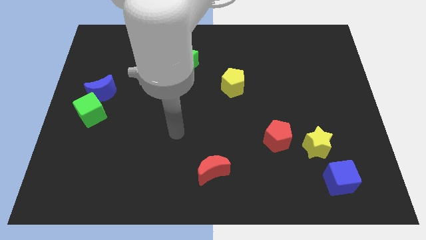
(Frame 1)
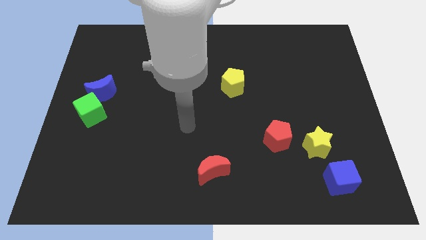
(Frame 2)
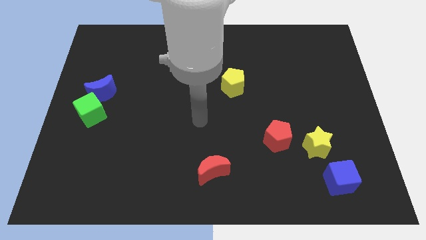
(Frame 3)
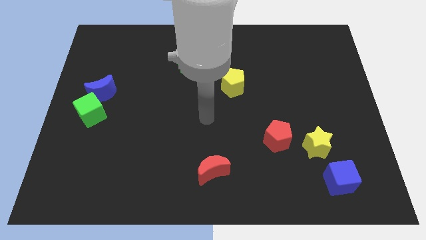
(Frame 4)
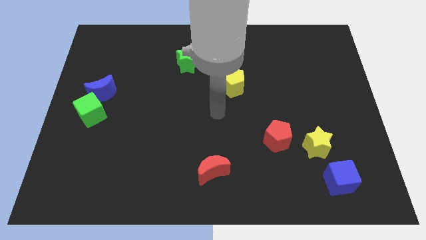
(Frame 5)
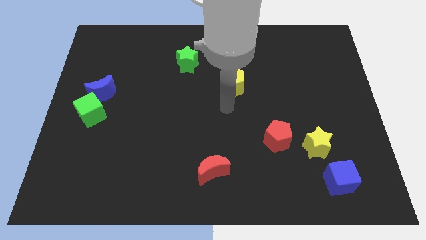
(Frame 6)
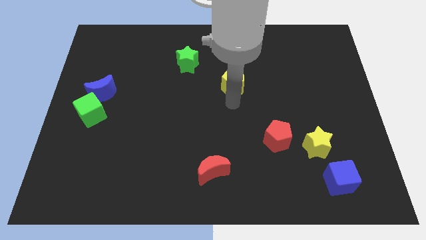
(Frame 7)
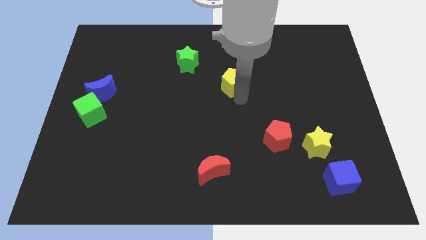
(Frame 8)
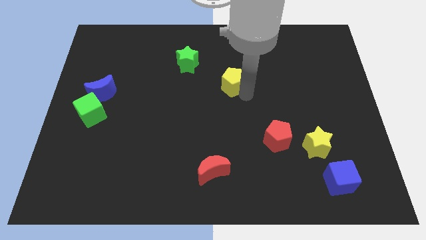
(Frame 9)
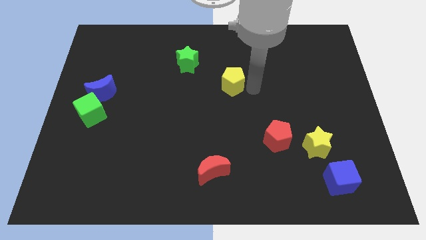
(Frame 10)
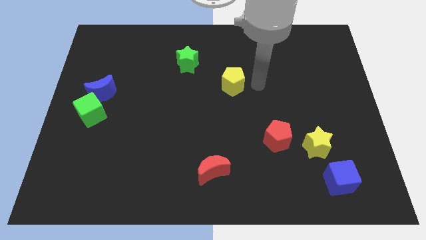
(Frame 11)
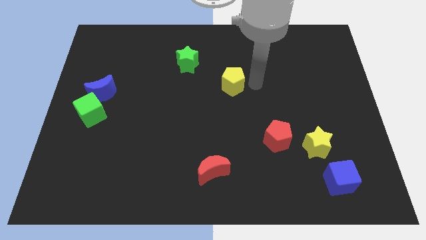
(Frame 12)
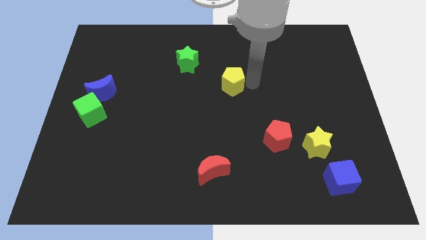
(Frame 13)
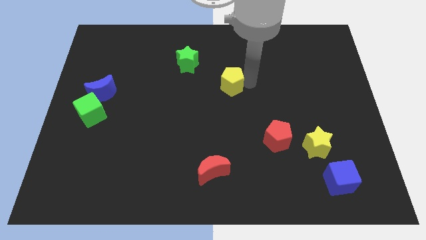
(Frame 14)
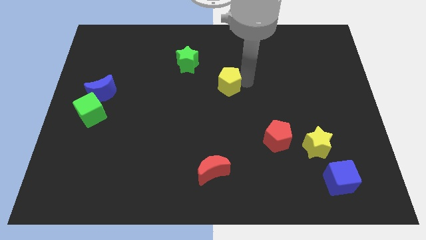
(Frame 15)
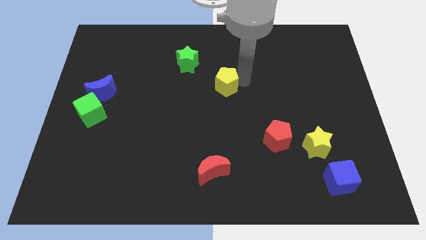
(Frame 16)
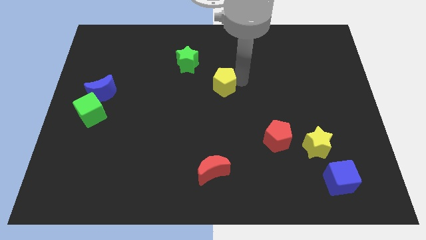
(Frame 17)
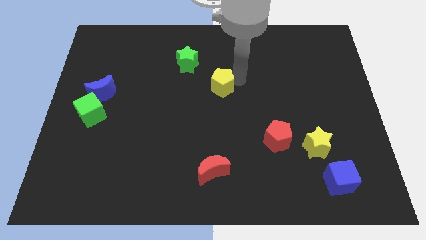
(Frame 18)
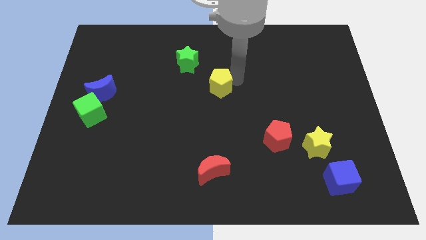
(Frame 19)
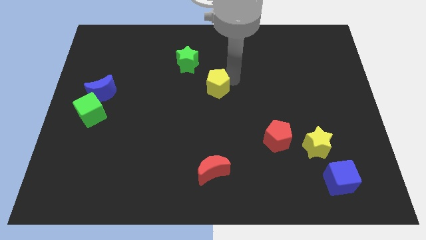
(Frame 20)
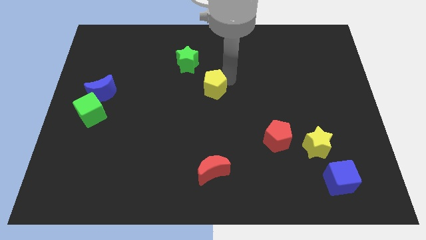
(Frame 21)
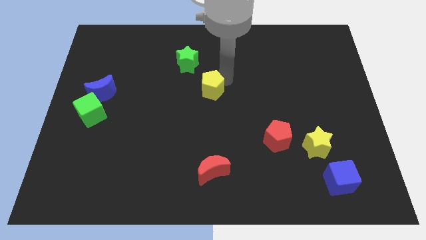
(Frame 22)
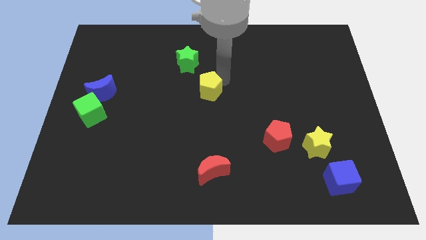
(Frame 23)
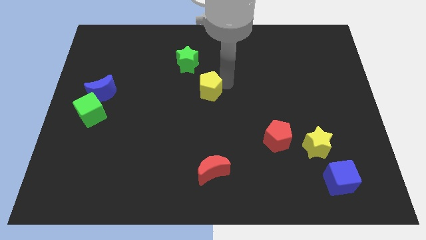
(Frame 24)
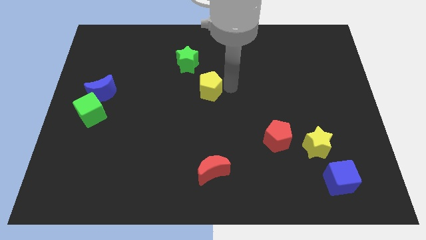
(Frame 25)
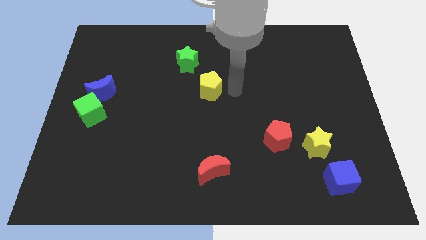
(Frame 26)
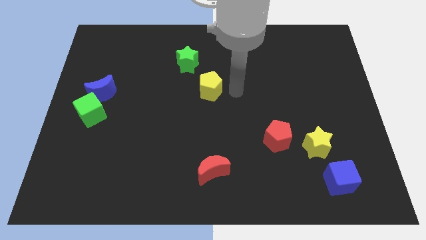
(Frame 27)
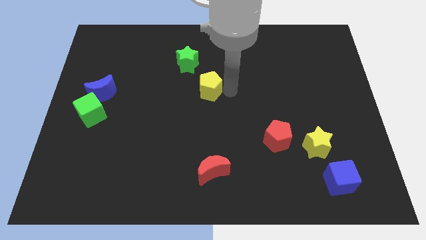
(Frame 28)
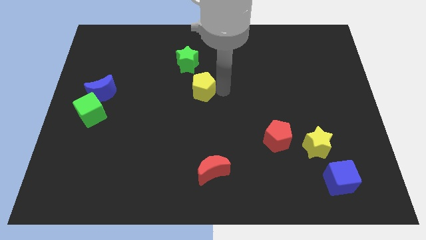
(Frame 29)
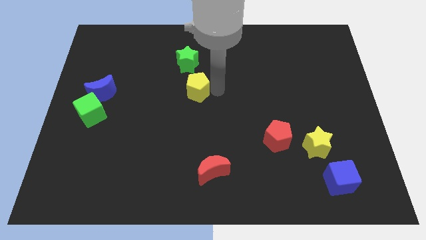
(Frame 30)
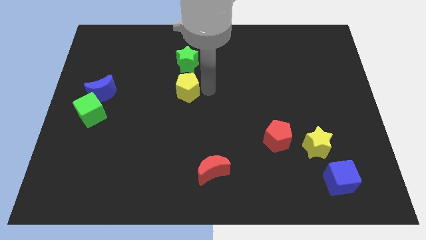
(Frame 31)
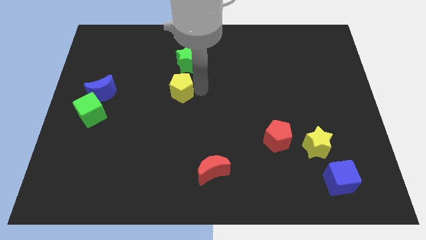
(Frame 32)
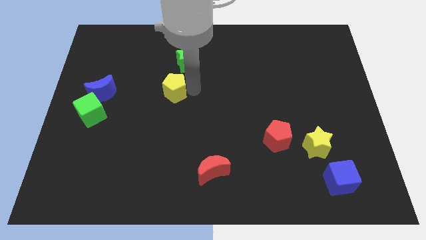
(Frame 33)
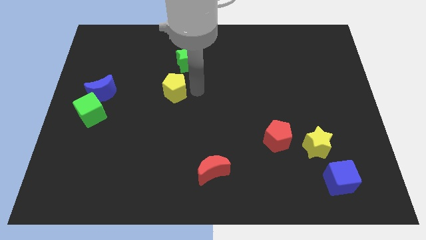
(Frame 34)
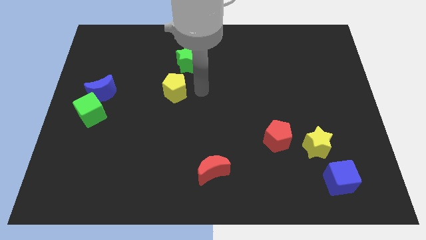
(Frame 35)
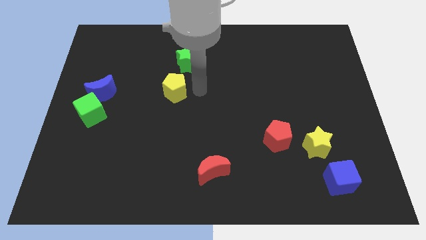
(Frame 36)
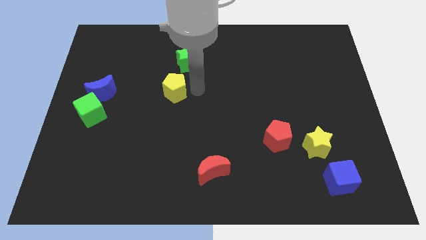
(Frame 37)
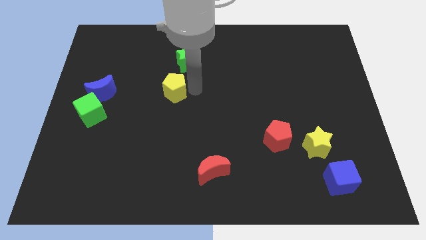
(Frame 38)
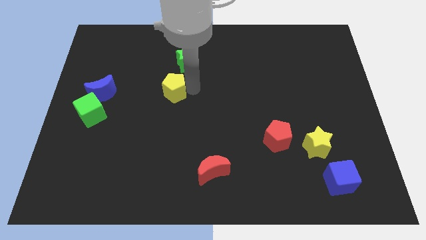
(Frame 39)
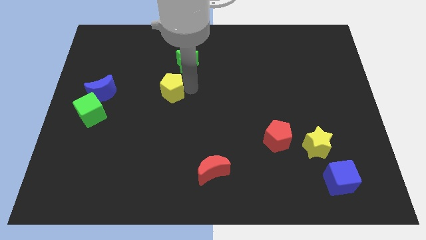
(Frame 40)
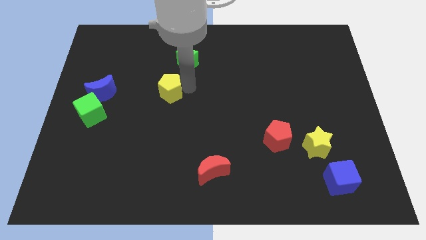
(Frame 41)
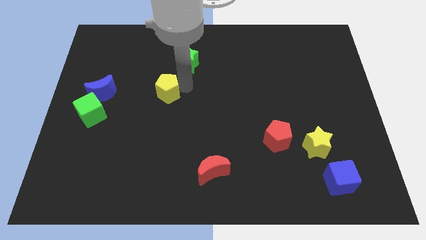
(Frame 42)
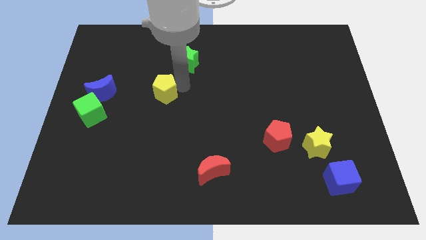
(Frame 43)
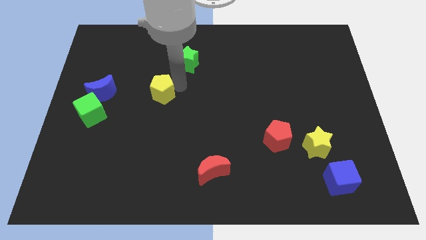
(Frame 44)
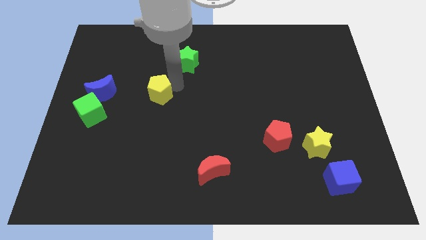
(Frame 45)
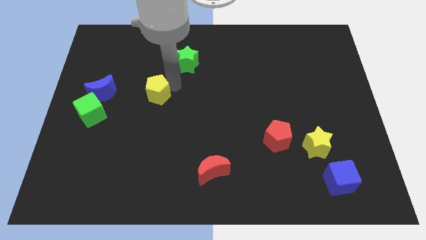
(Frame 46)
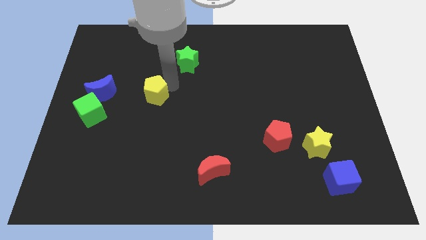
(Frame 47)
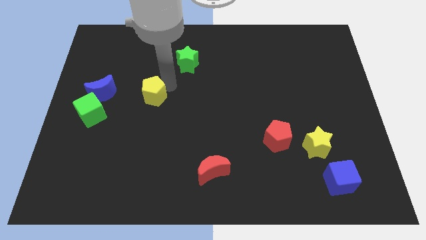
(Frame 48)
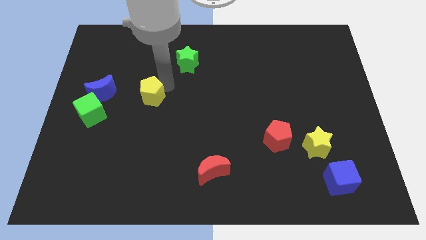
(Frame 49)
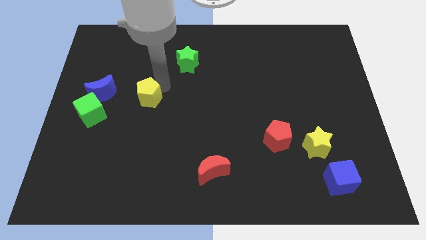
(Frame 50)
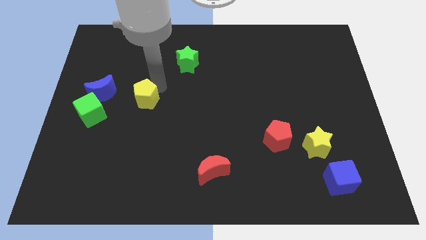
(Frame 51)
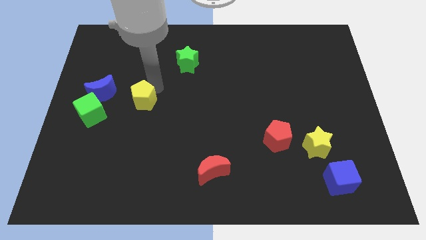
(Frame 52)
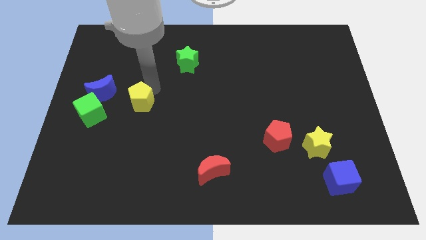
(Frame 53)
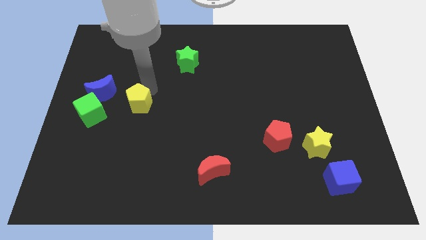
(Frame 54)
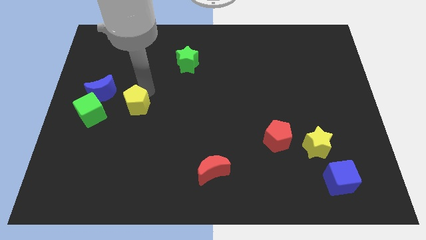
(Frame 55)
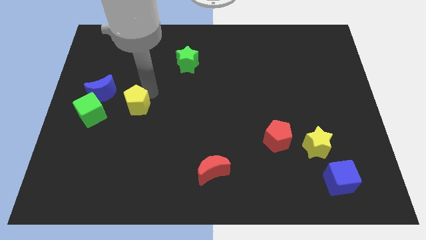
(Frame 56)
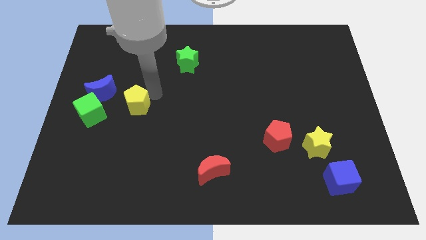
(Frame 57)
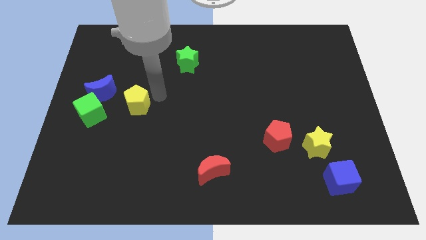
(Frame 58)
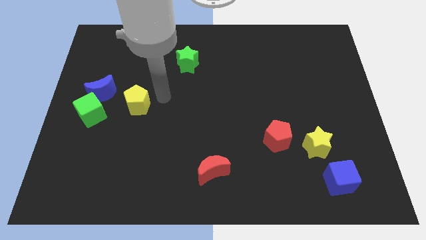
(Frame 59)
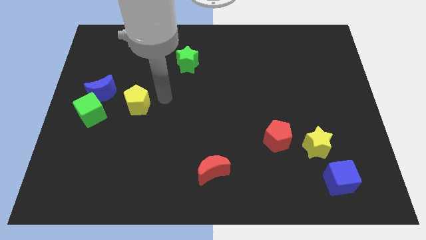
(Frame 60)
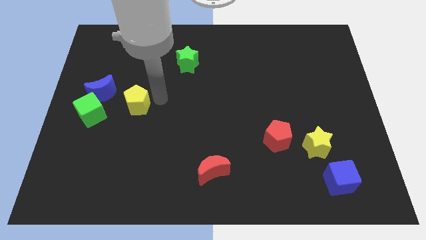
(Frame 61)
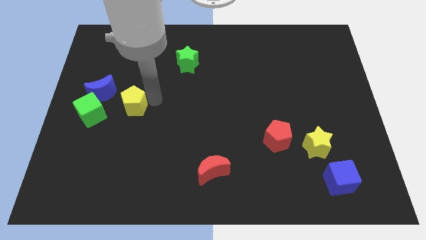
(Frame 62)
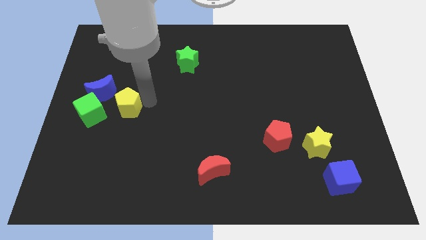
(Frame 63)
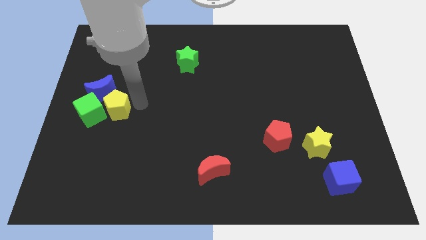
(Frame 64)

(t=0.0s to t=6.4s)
slide the yellow pentagon towards the green cube
